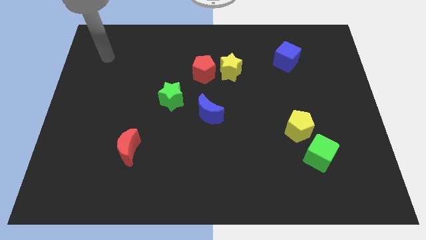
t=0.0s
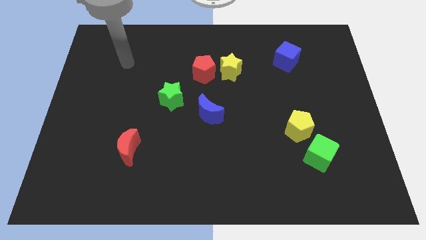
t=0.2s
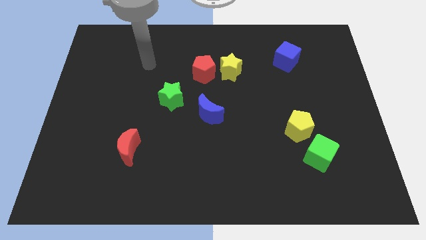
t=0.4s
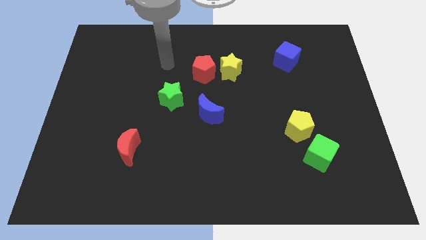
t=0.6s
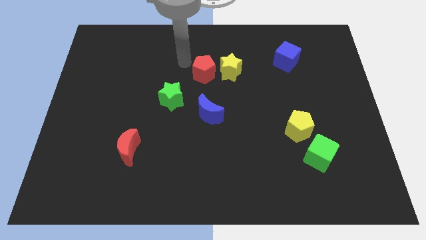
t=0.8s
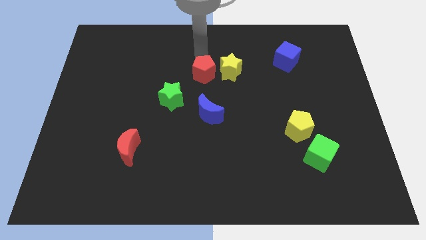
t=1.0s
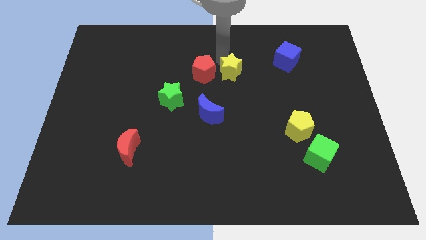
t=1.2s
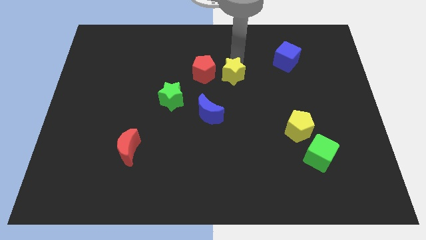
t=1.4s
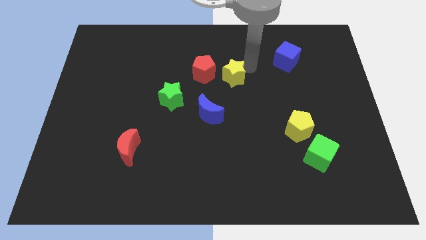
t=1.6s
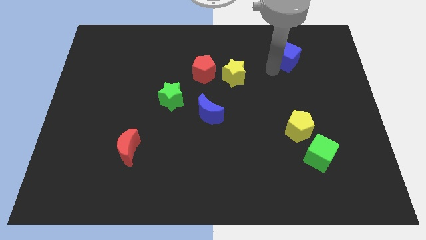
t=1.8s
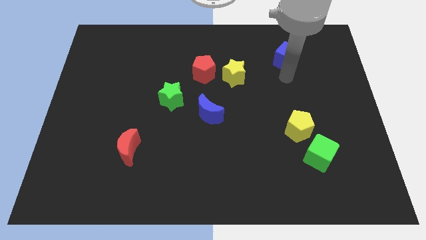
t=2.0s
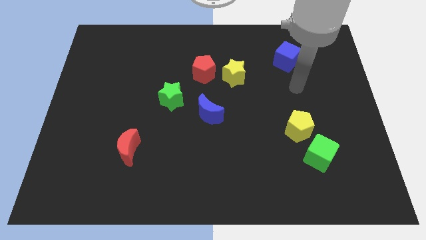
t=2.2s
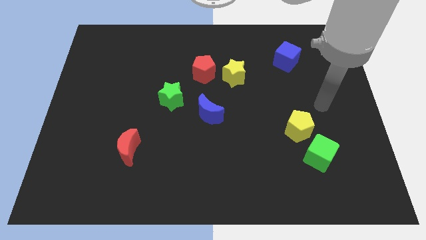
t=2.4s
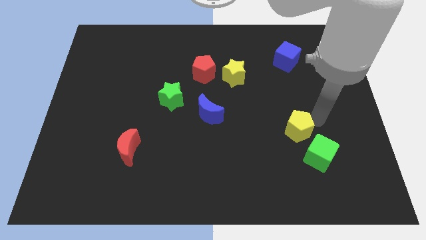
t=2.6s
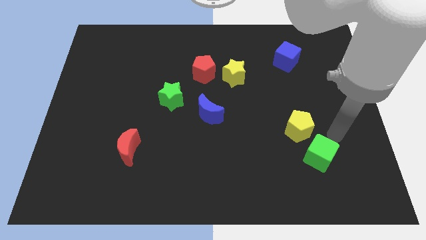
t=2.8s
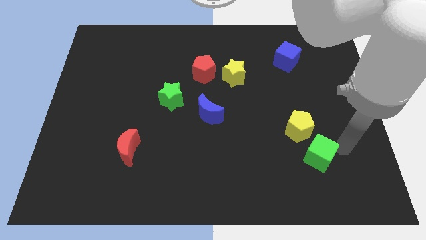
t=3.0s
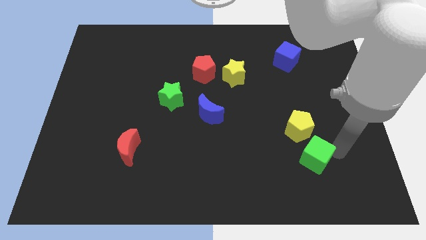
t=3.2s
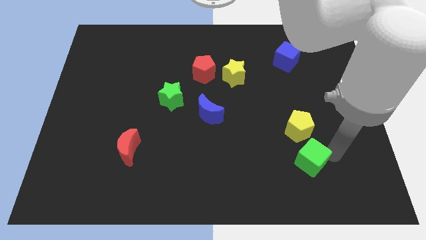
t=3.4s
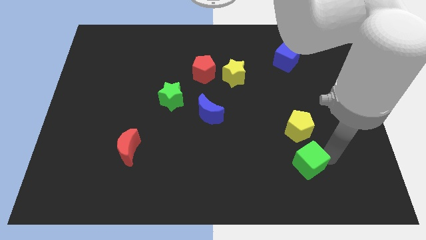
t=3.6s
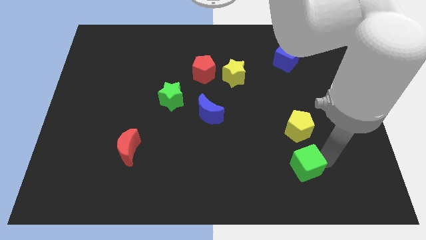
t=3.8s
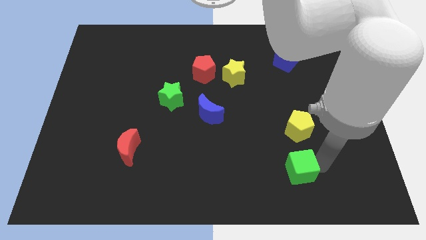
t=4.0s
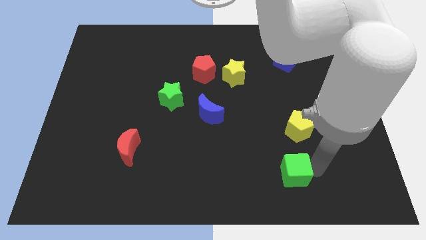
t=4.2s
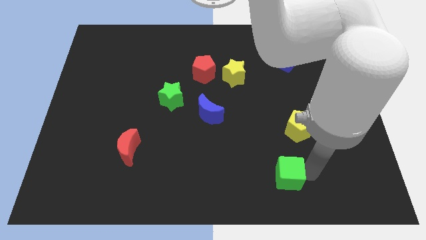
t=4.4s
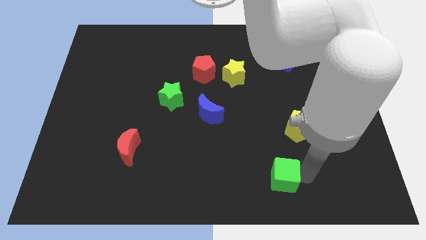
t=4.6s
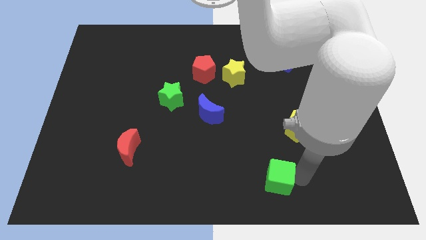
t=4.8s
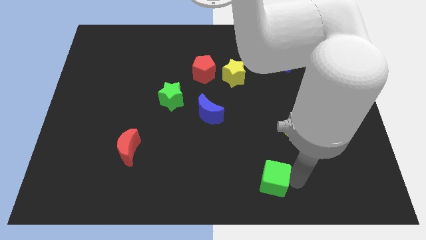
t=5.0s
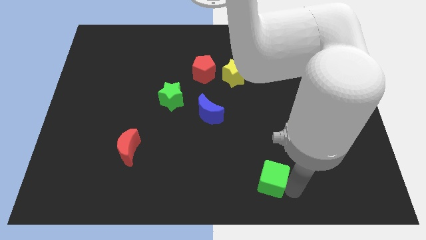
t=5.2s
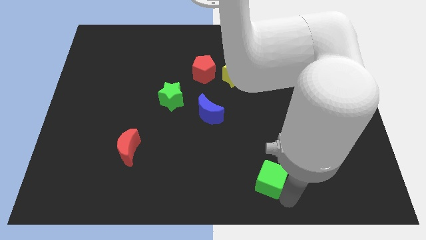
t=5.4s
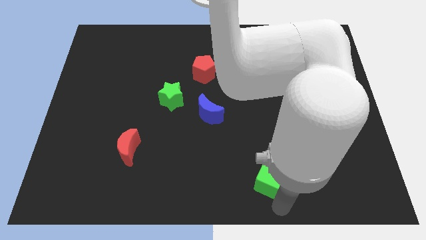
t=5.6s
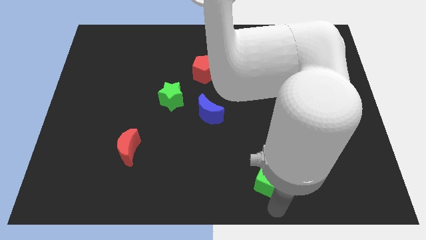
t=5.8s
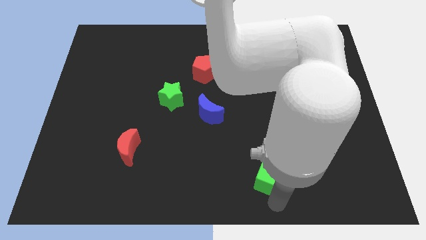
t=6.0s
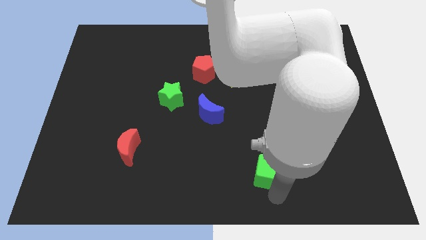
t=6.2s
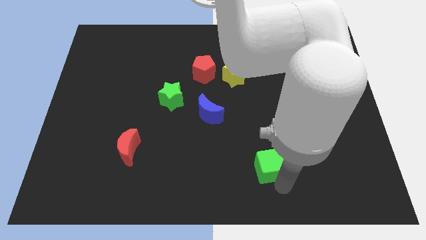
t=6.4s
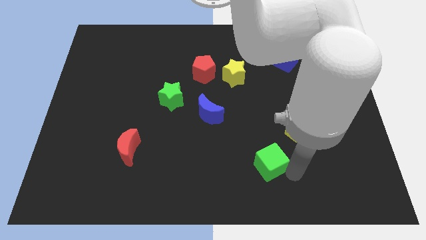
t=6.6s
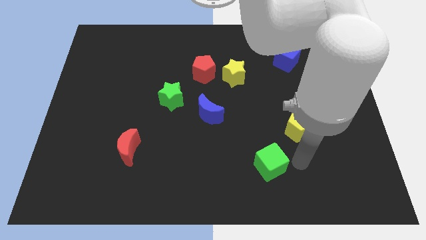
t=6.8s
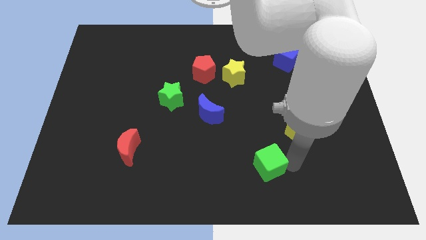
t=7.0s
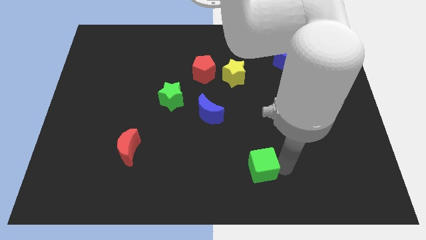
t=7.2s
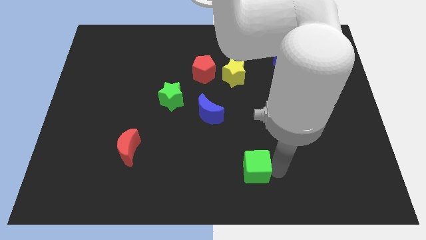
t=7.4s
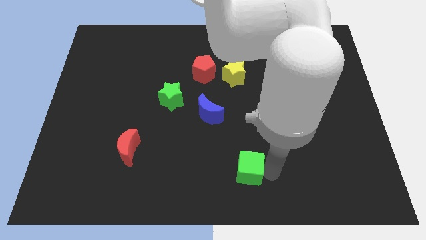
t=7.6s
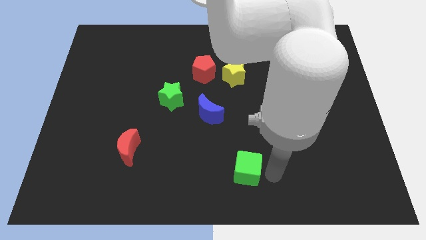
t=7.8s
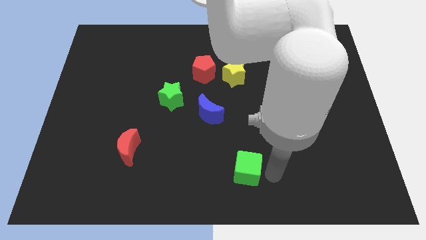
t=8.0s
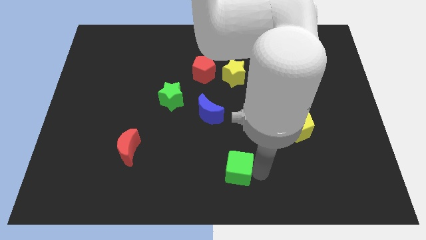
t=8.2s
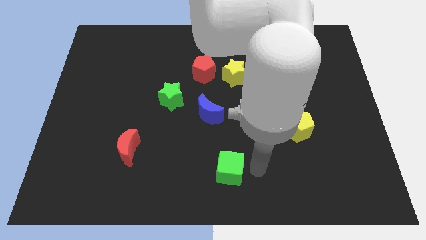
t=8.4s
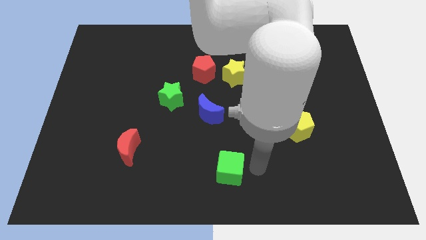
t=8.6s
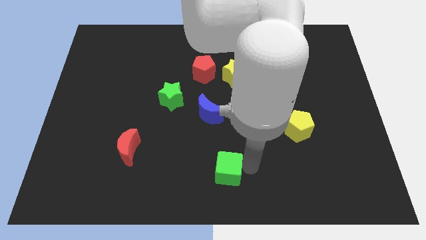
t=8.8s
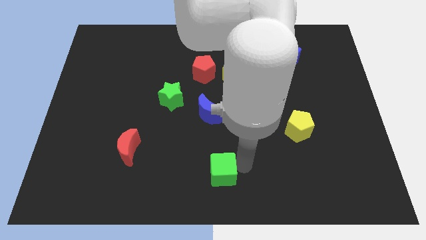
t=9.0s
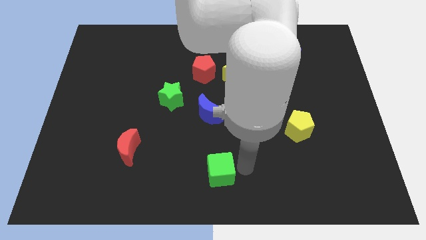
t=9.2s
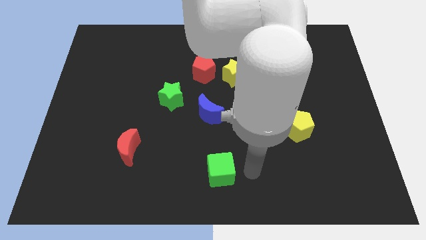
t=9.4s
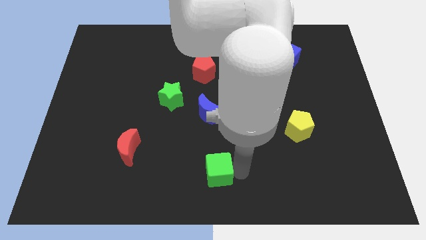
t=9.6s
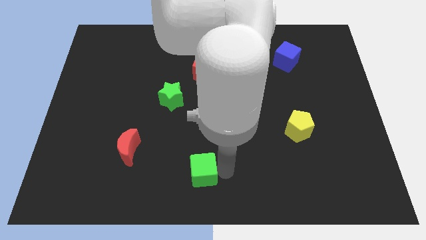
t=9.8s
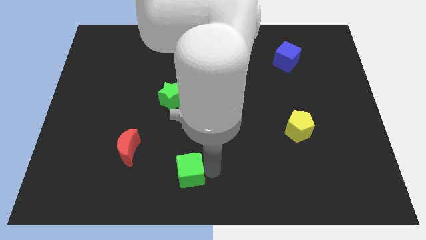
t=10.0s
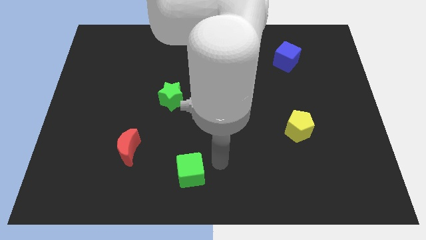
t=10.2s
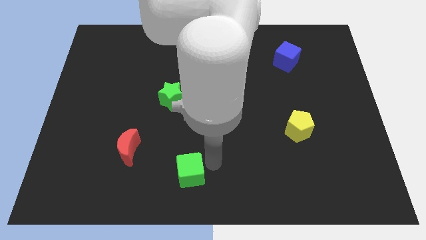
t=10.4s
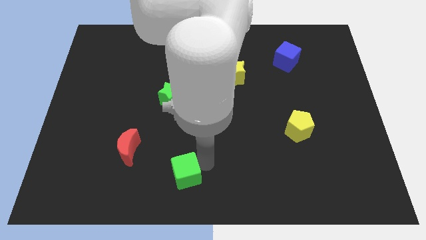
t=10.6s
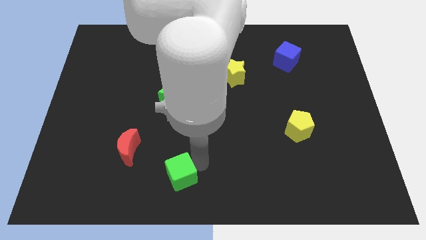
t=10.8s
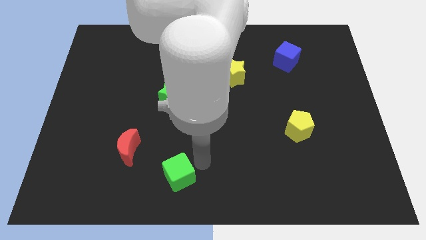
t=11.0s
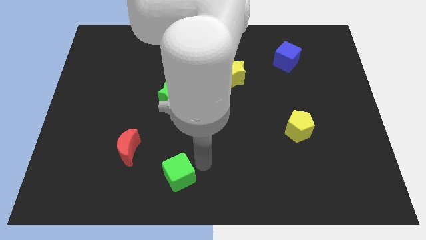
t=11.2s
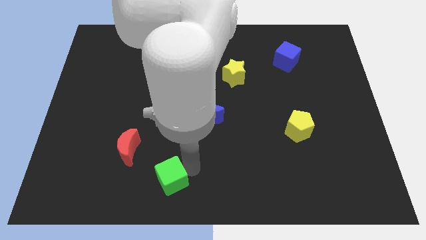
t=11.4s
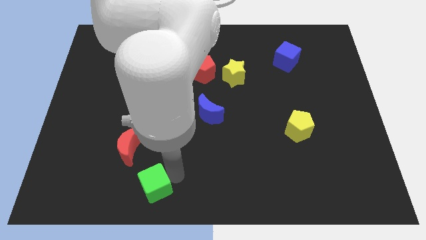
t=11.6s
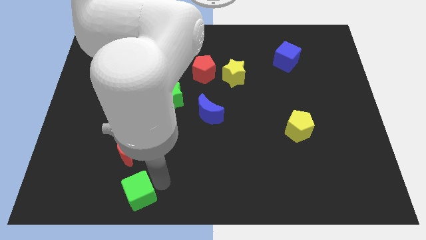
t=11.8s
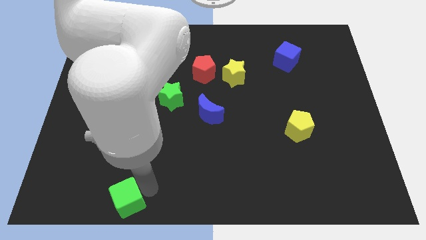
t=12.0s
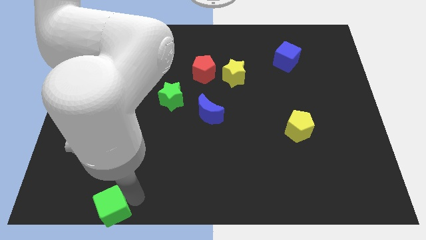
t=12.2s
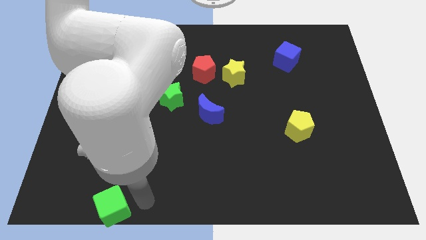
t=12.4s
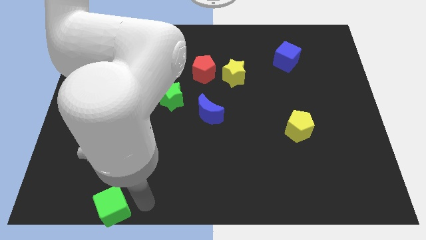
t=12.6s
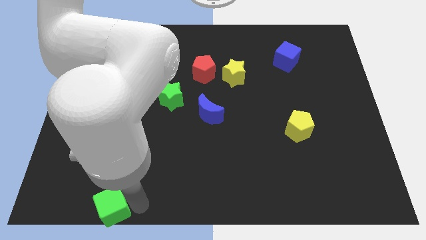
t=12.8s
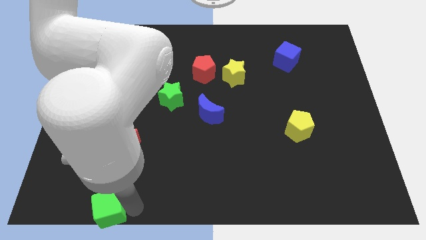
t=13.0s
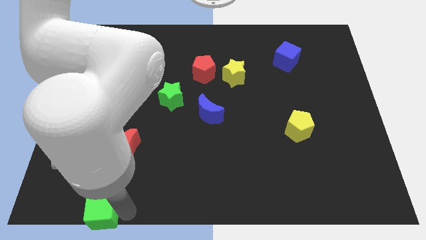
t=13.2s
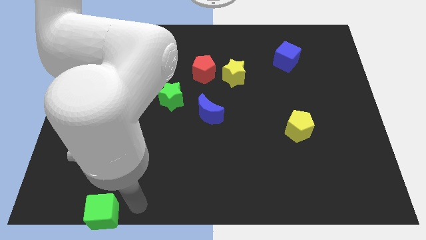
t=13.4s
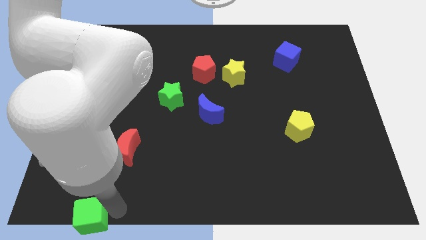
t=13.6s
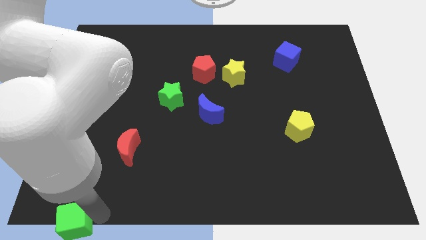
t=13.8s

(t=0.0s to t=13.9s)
put the green cube to the bottom left

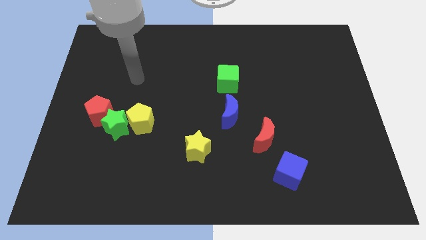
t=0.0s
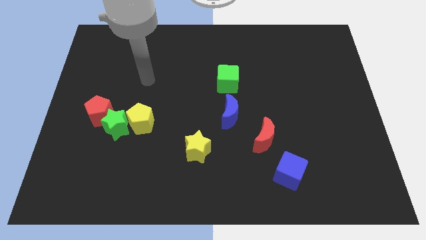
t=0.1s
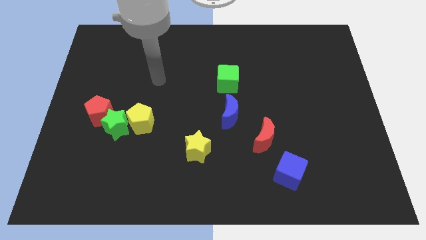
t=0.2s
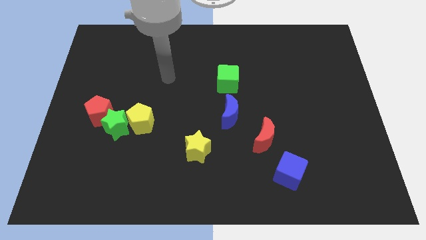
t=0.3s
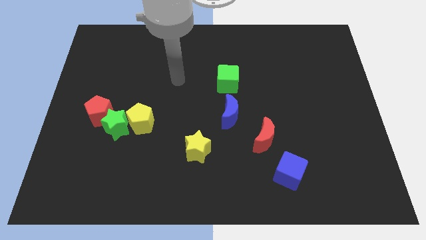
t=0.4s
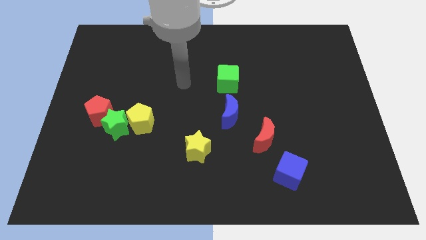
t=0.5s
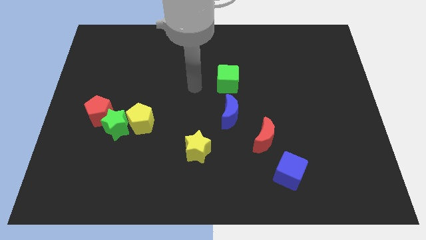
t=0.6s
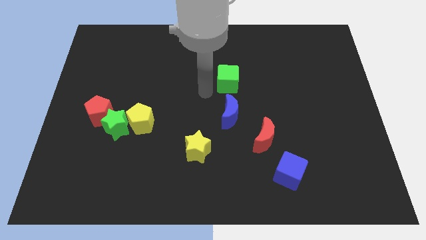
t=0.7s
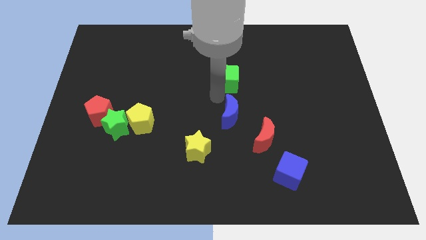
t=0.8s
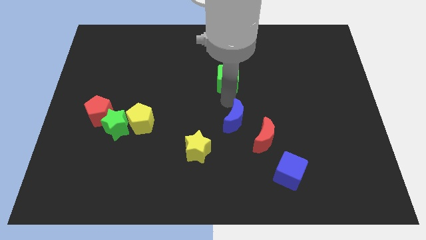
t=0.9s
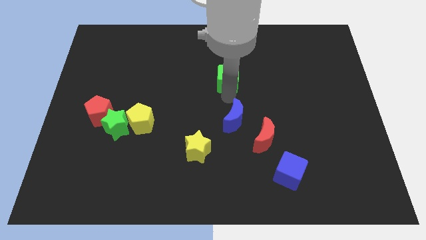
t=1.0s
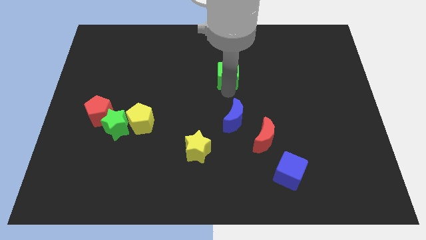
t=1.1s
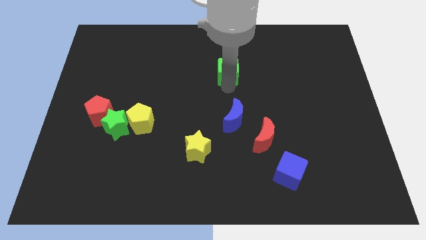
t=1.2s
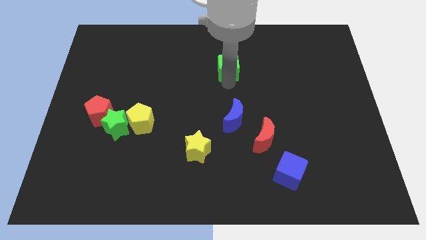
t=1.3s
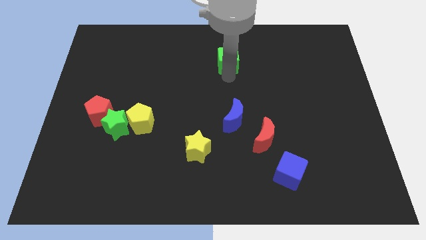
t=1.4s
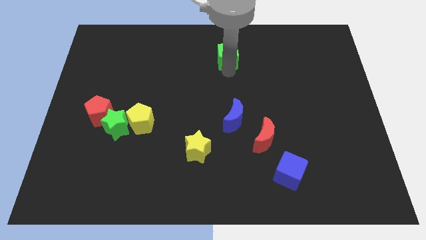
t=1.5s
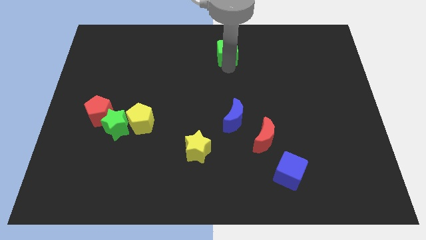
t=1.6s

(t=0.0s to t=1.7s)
push the green cube to the top
